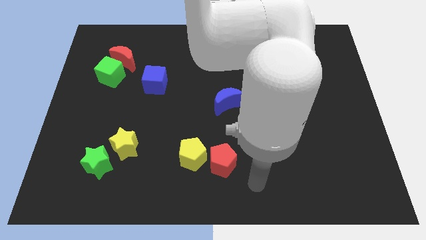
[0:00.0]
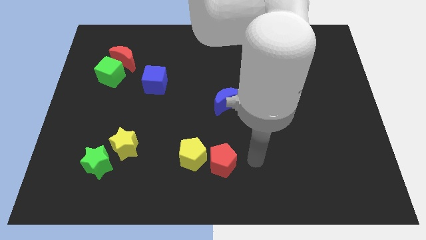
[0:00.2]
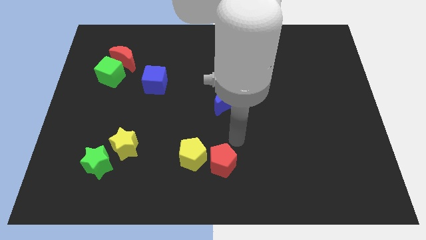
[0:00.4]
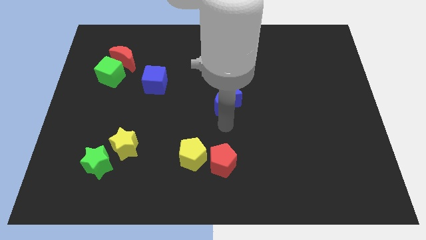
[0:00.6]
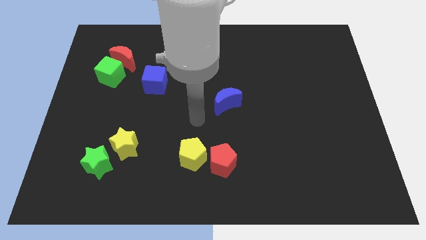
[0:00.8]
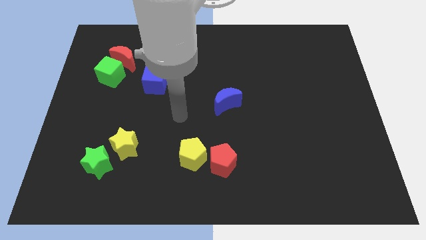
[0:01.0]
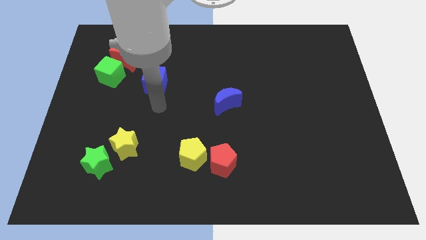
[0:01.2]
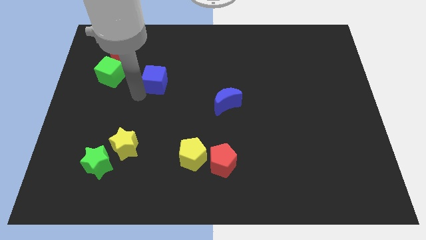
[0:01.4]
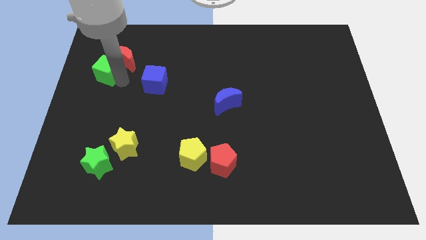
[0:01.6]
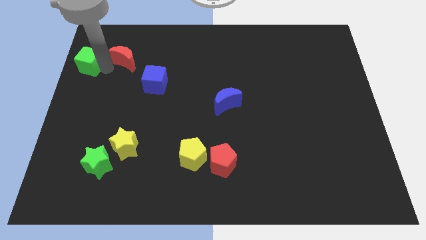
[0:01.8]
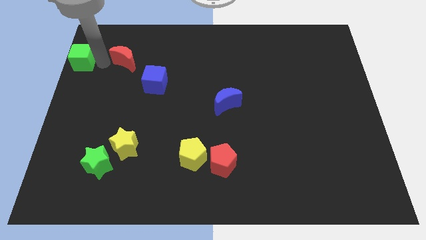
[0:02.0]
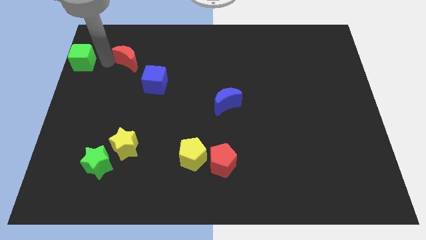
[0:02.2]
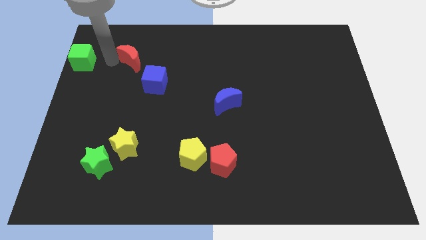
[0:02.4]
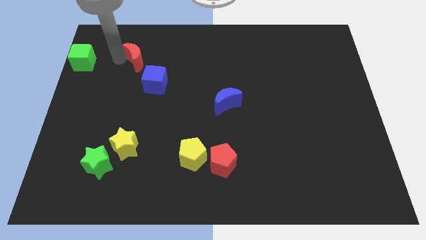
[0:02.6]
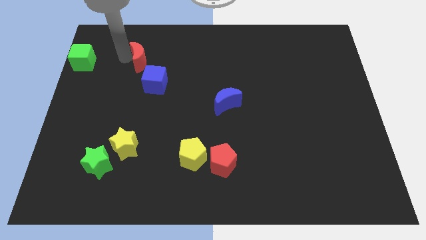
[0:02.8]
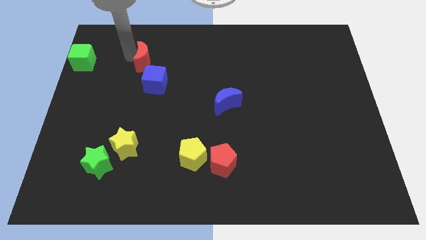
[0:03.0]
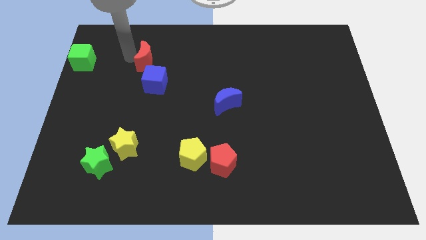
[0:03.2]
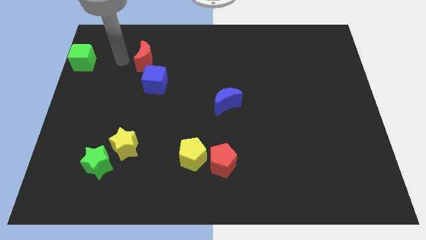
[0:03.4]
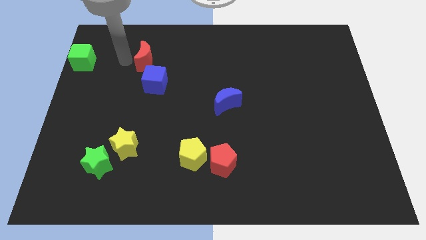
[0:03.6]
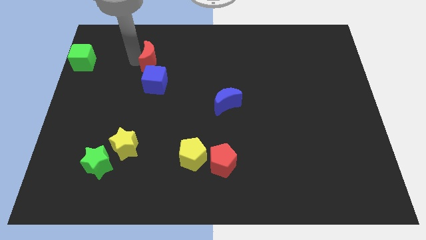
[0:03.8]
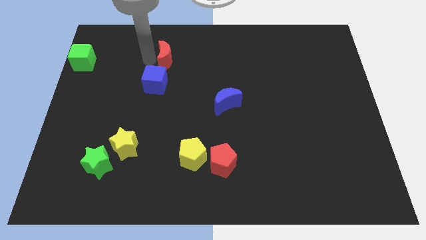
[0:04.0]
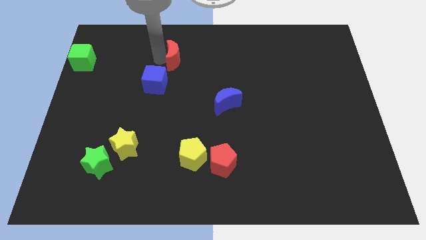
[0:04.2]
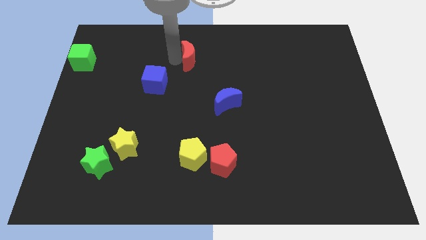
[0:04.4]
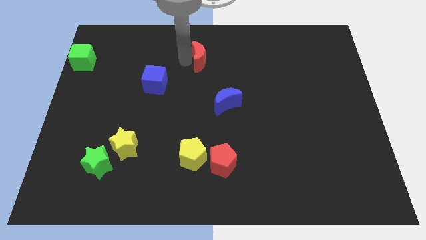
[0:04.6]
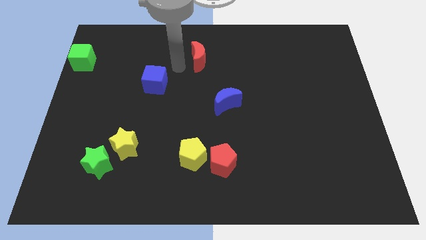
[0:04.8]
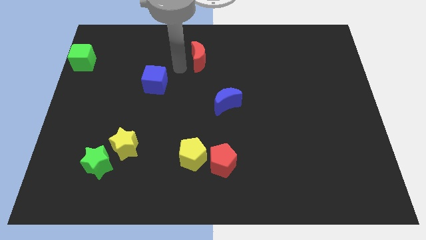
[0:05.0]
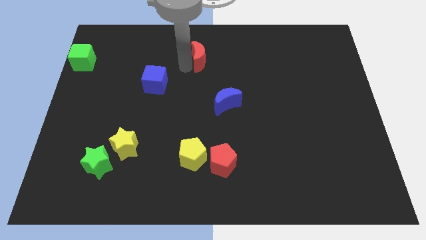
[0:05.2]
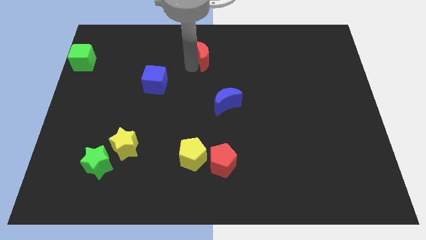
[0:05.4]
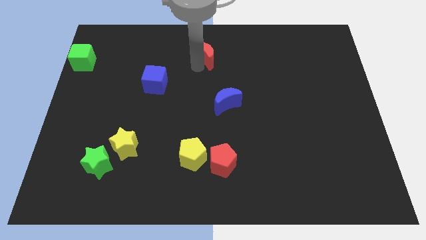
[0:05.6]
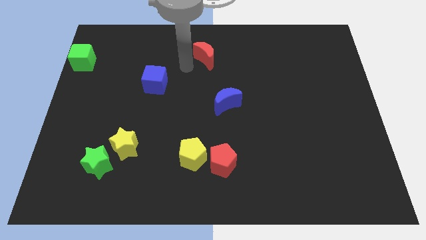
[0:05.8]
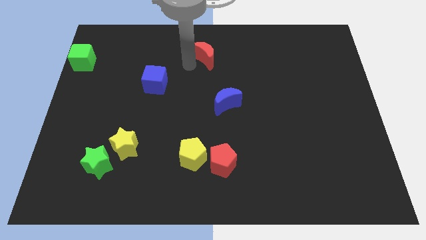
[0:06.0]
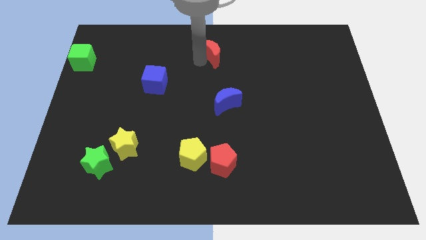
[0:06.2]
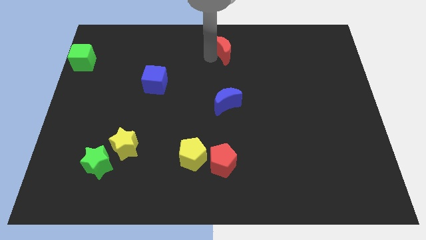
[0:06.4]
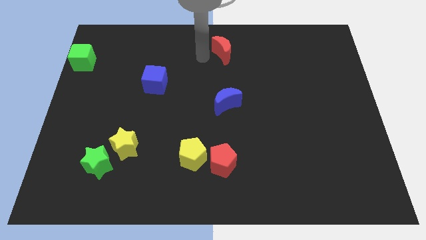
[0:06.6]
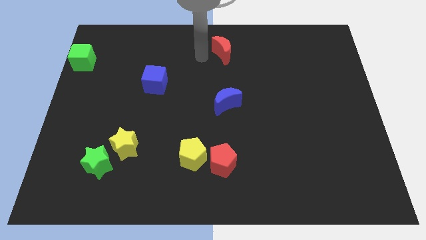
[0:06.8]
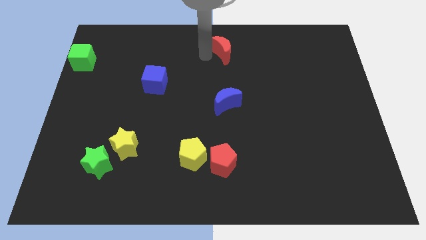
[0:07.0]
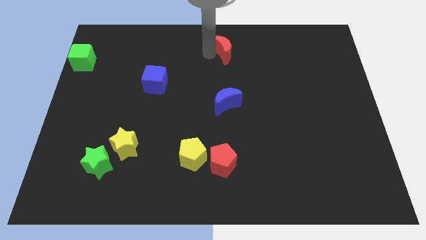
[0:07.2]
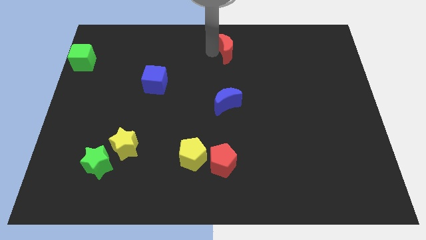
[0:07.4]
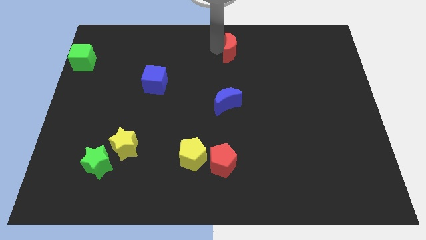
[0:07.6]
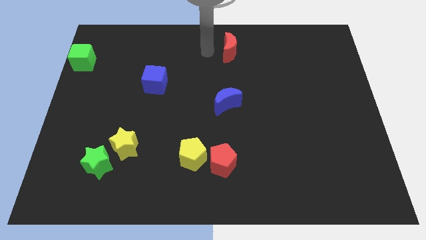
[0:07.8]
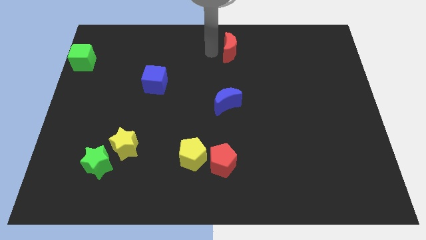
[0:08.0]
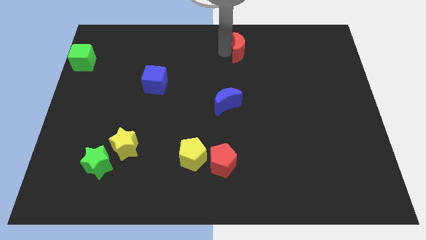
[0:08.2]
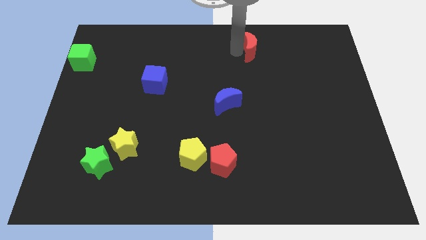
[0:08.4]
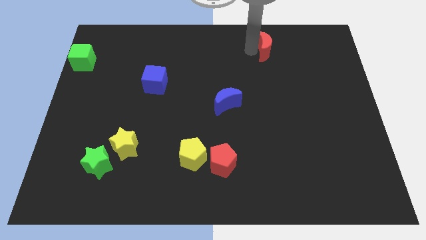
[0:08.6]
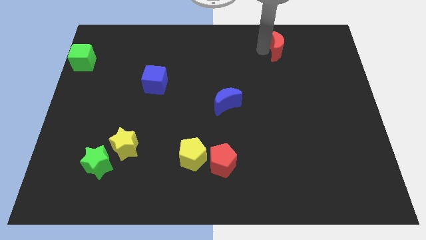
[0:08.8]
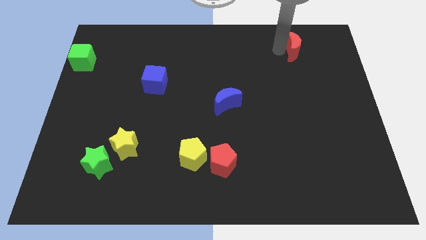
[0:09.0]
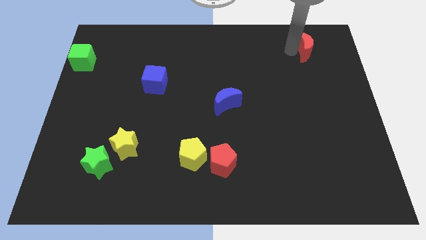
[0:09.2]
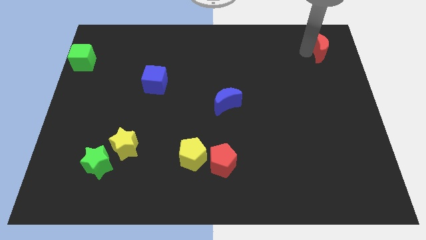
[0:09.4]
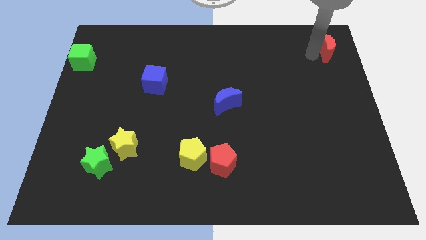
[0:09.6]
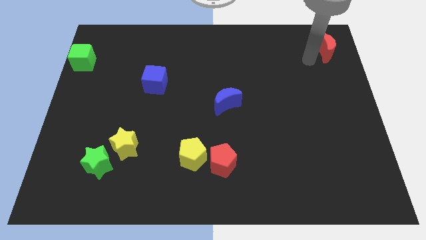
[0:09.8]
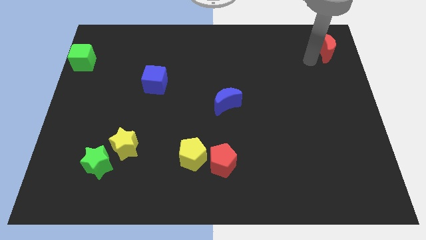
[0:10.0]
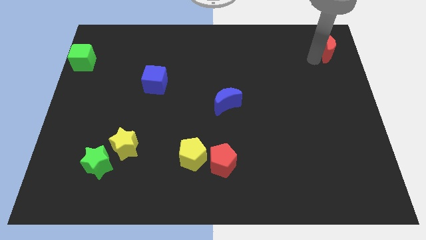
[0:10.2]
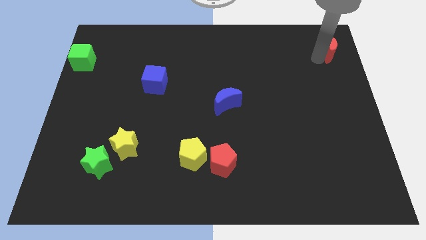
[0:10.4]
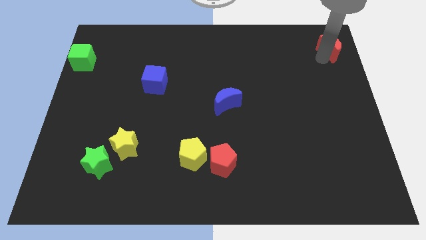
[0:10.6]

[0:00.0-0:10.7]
push the red moon to the upper right corner

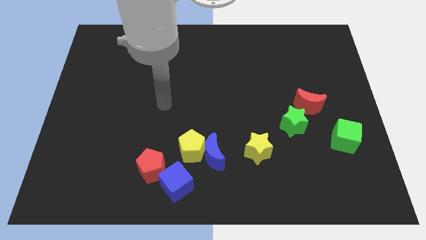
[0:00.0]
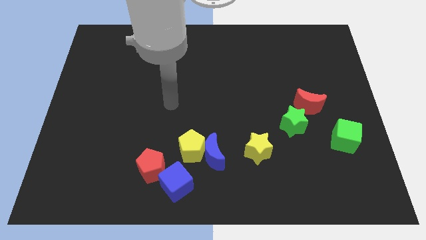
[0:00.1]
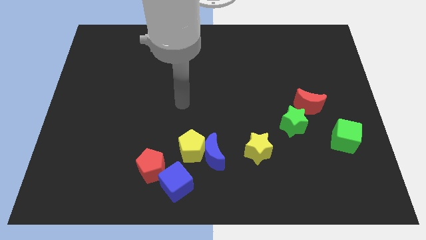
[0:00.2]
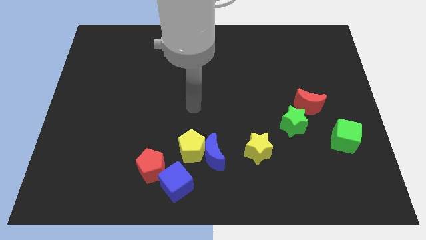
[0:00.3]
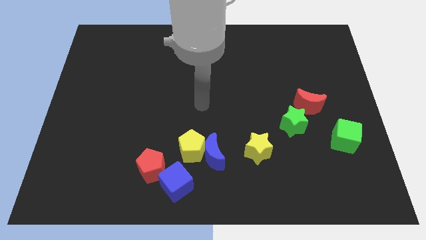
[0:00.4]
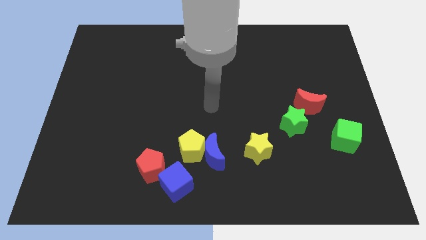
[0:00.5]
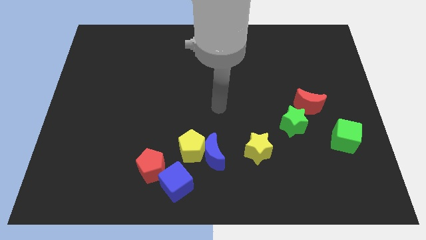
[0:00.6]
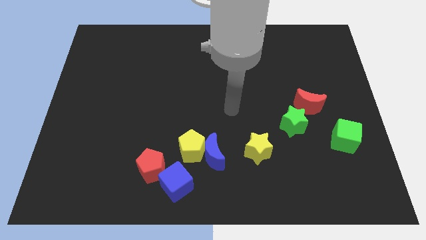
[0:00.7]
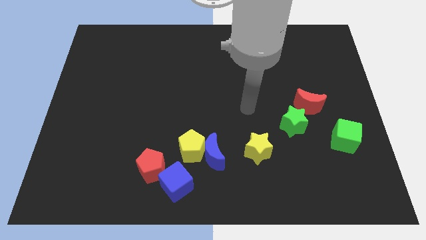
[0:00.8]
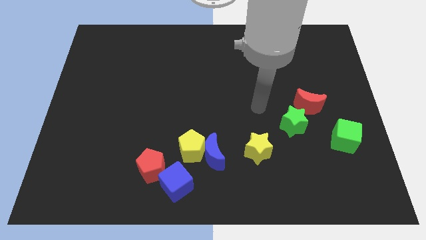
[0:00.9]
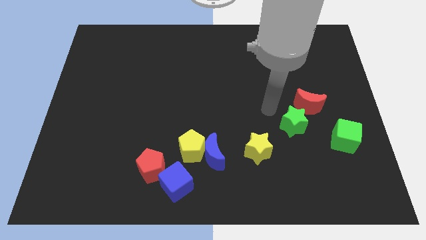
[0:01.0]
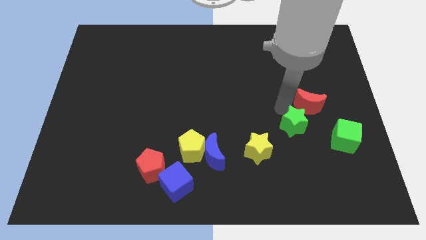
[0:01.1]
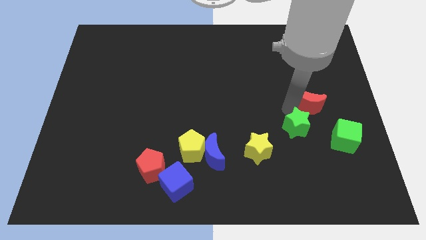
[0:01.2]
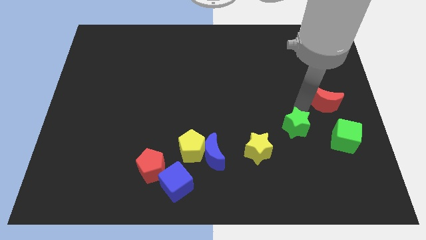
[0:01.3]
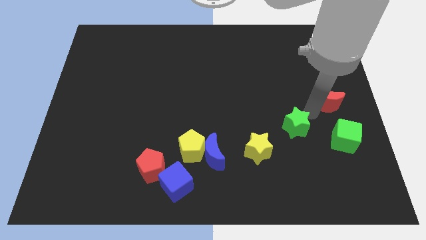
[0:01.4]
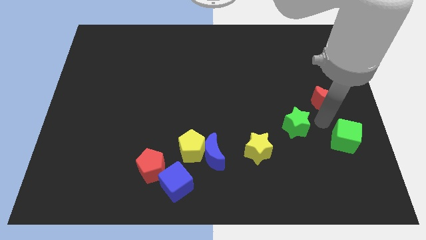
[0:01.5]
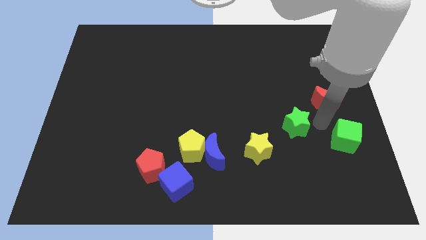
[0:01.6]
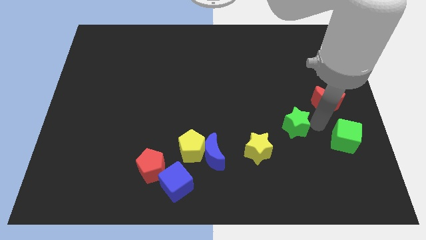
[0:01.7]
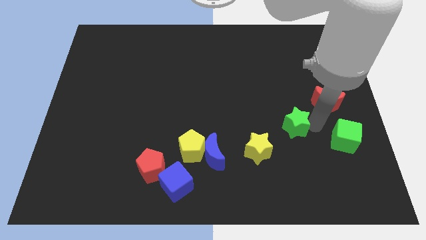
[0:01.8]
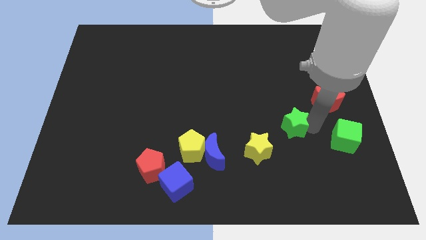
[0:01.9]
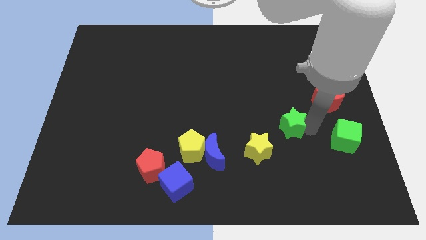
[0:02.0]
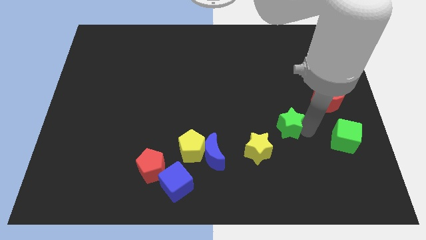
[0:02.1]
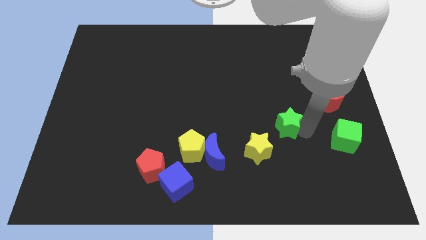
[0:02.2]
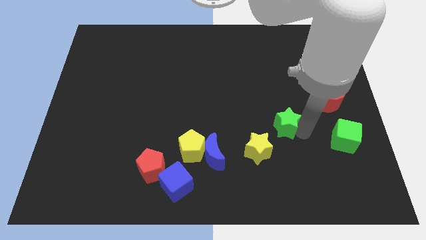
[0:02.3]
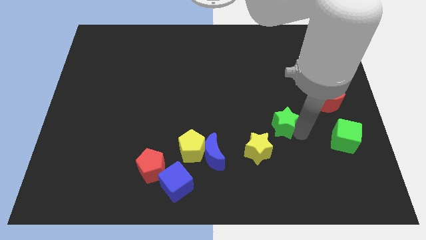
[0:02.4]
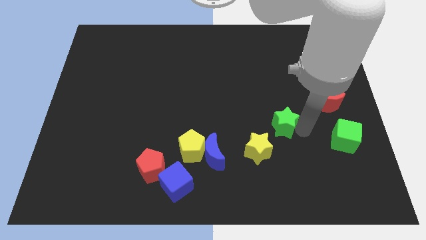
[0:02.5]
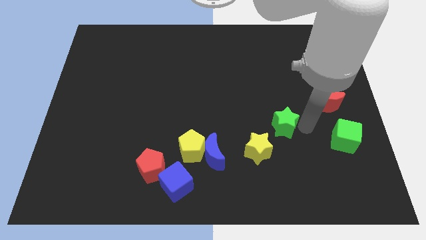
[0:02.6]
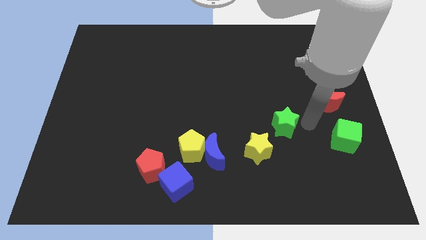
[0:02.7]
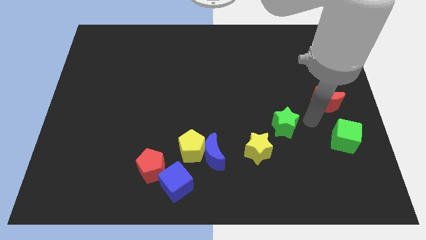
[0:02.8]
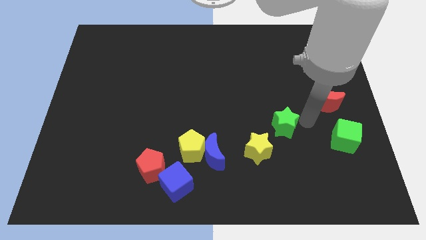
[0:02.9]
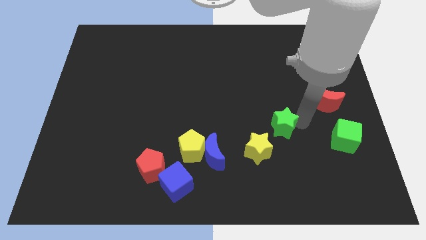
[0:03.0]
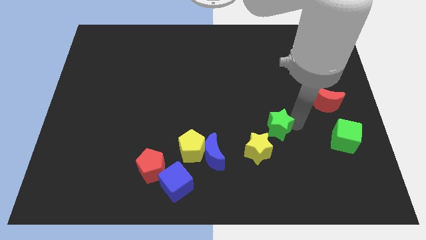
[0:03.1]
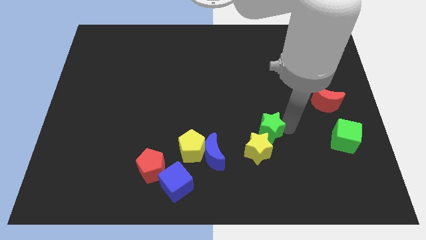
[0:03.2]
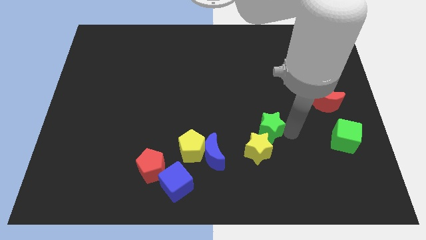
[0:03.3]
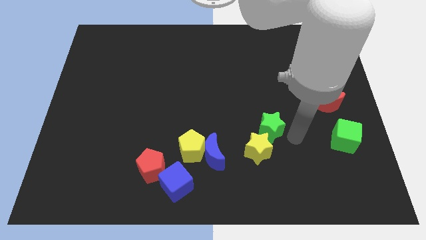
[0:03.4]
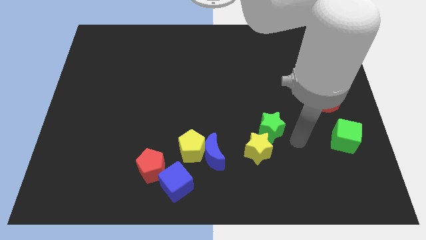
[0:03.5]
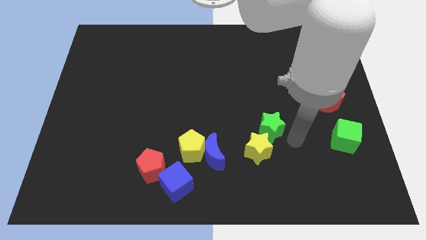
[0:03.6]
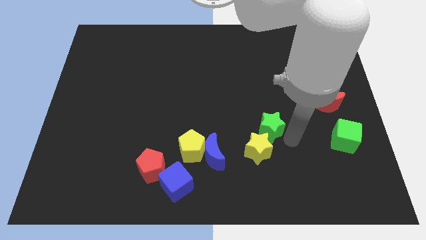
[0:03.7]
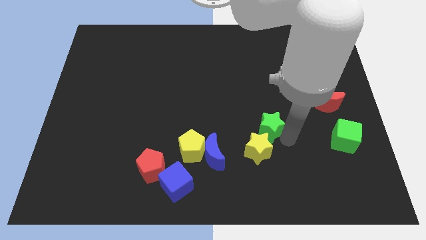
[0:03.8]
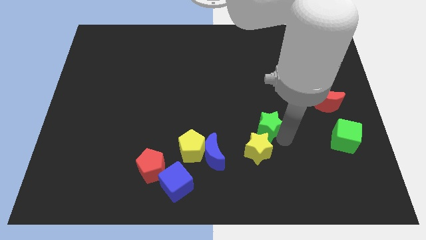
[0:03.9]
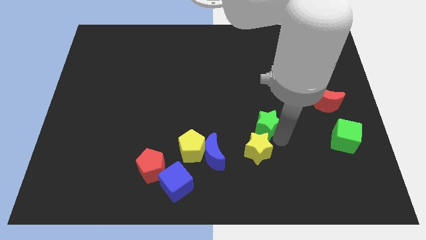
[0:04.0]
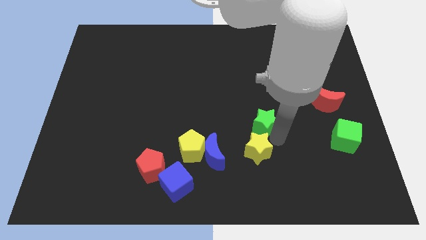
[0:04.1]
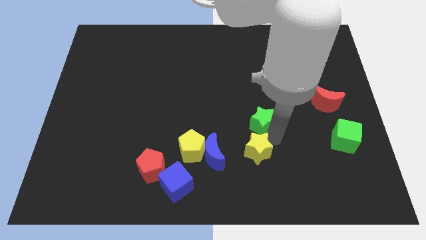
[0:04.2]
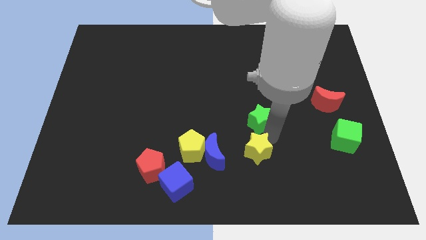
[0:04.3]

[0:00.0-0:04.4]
slide the green star to the center
